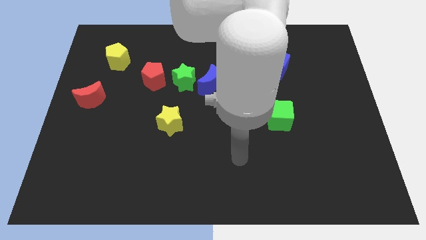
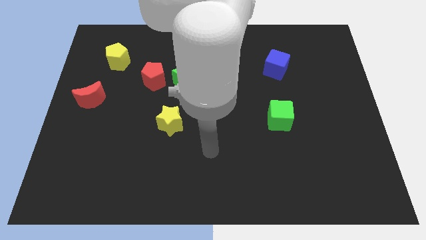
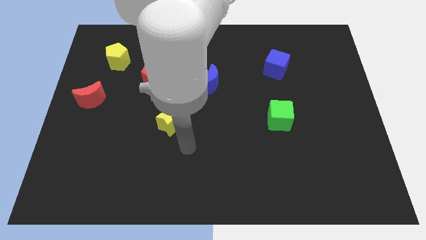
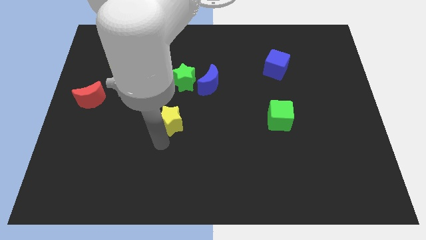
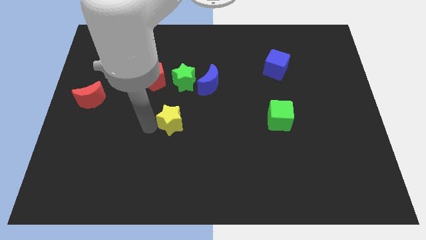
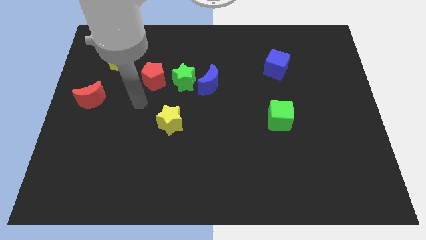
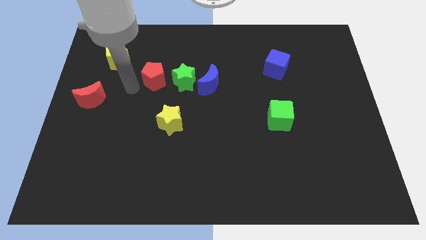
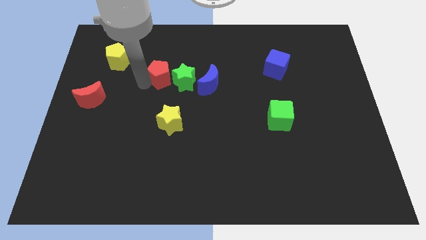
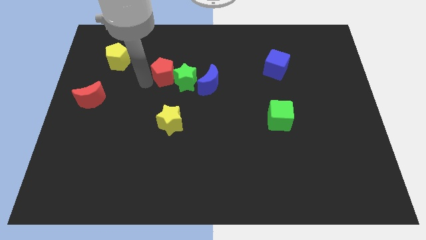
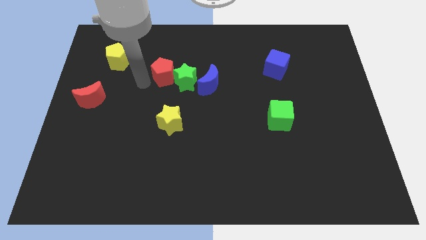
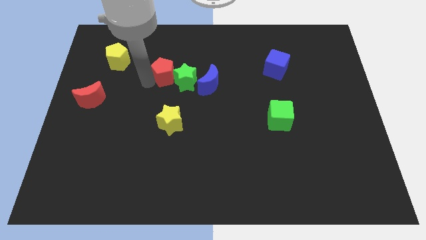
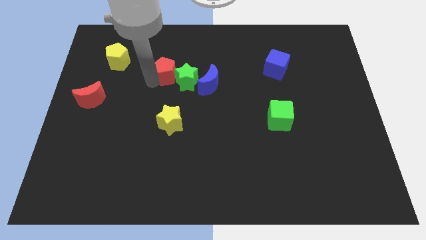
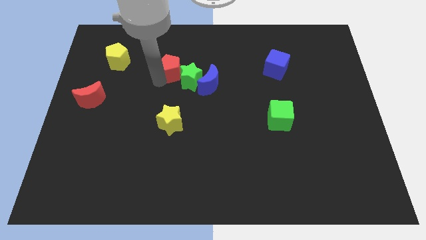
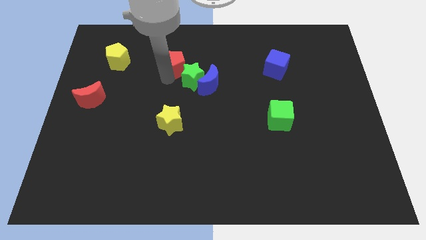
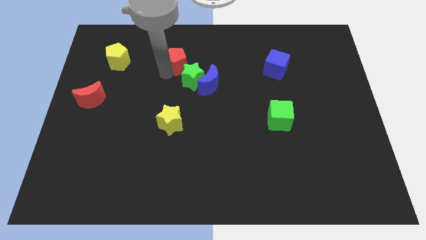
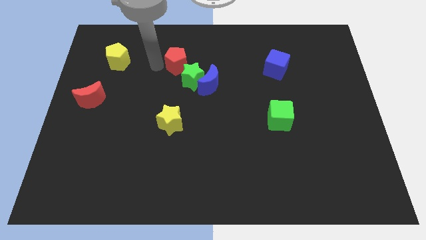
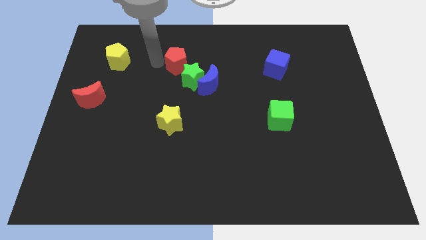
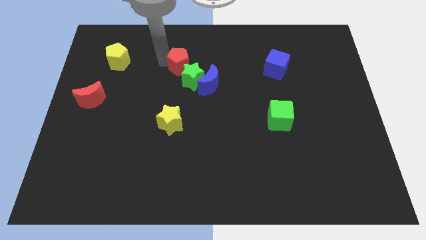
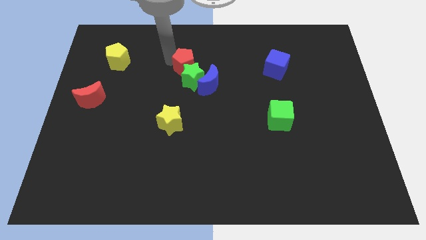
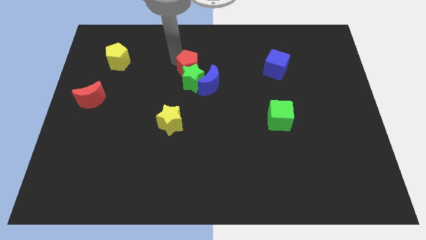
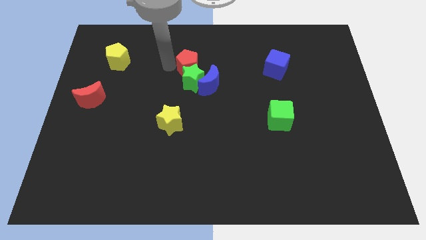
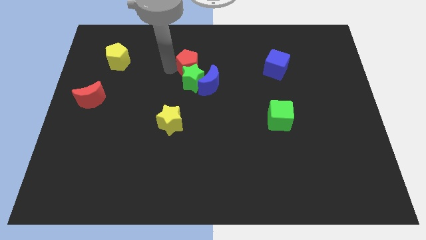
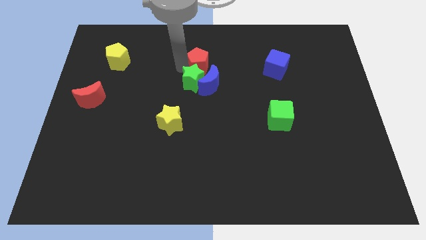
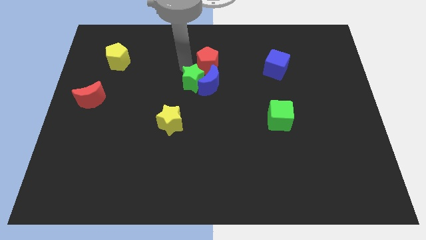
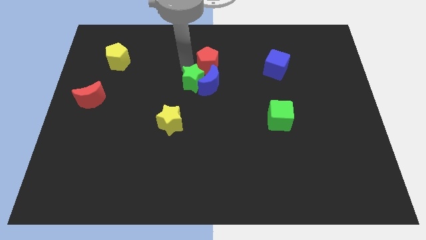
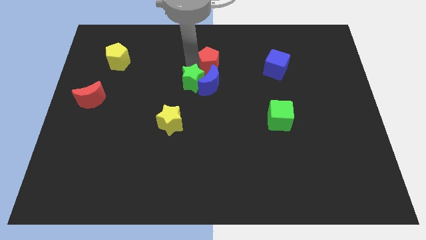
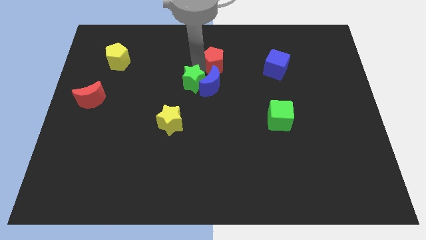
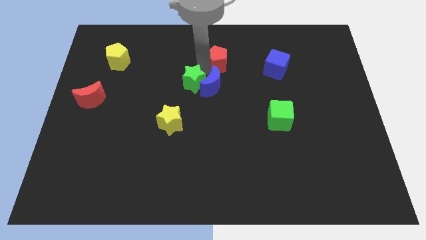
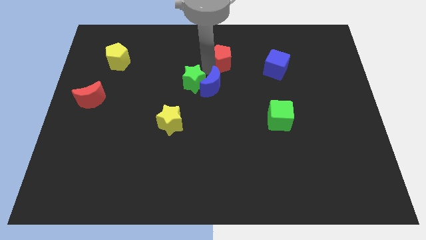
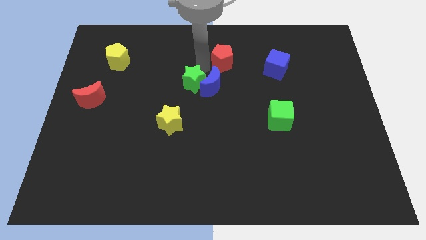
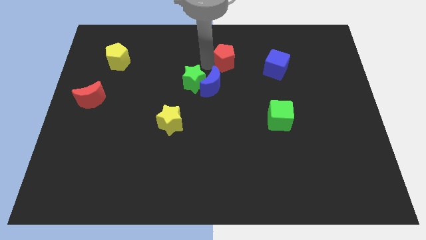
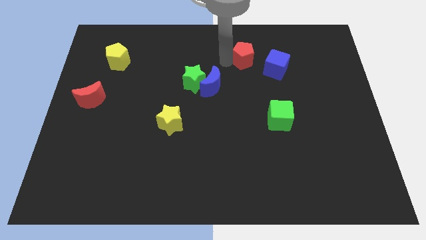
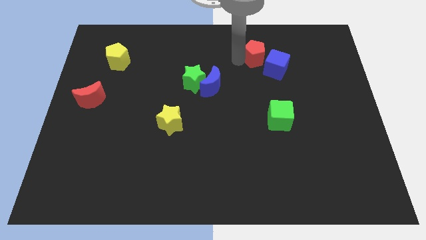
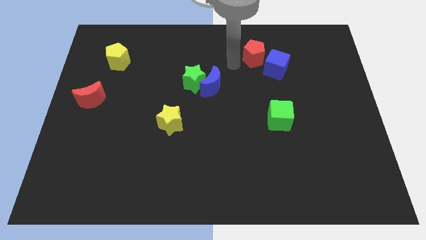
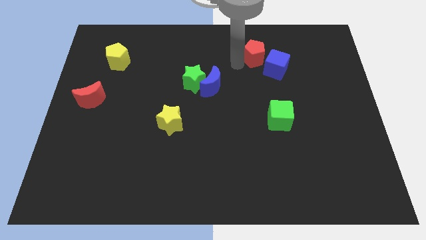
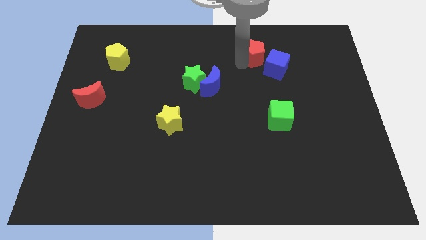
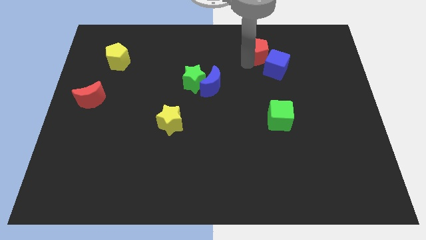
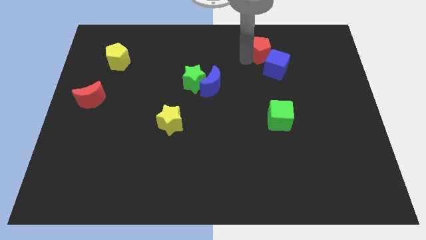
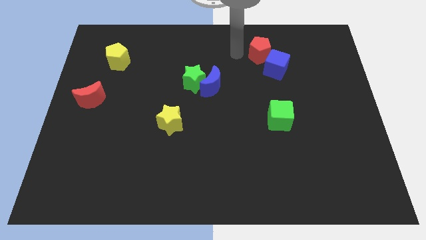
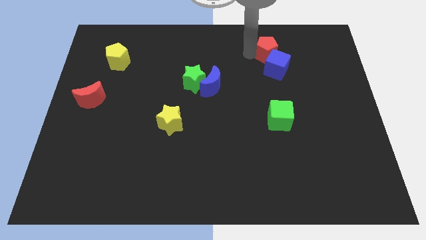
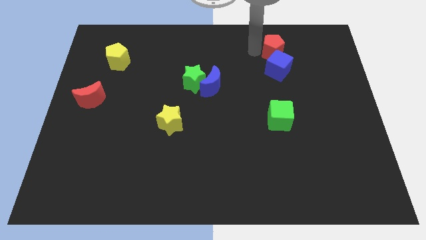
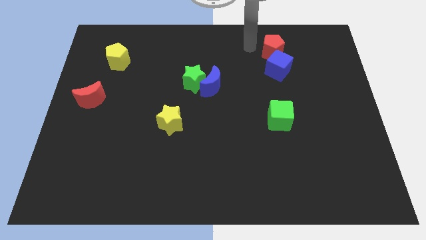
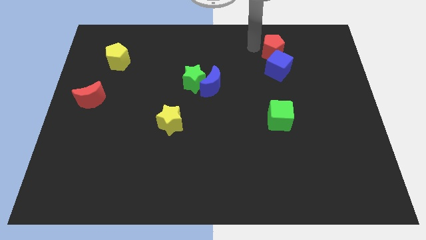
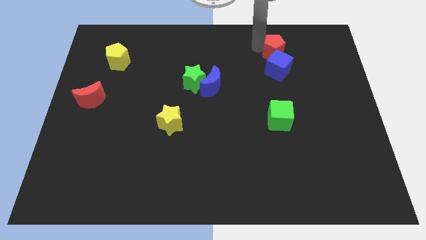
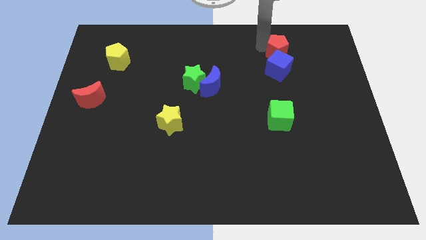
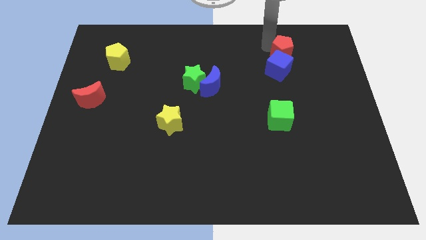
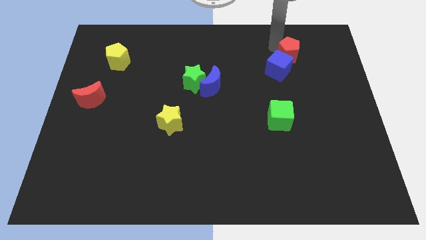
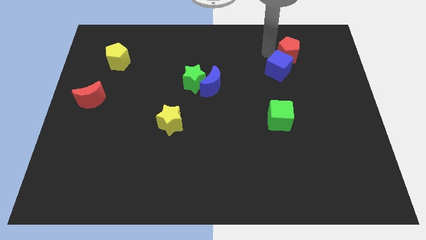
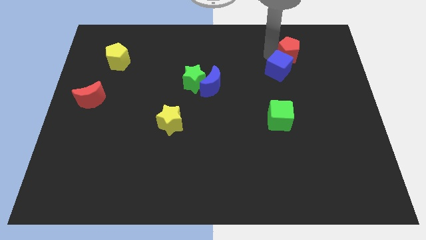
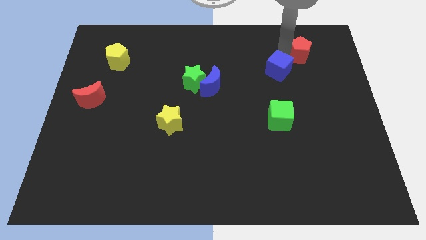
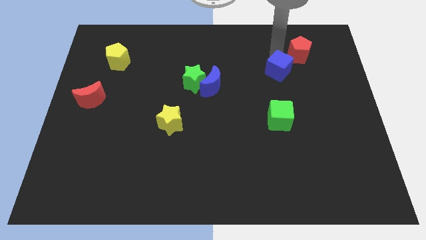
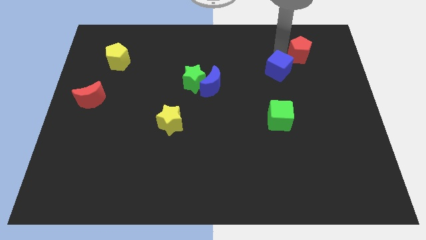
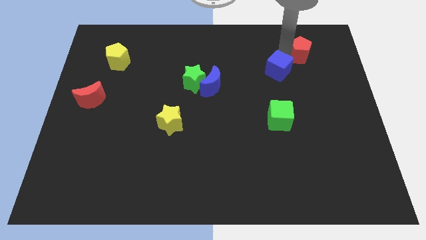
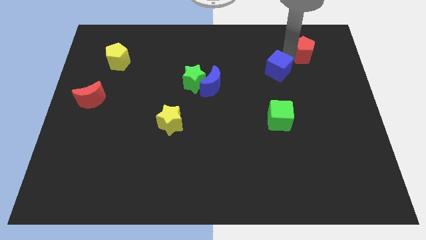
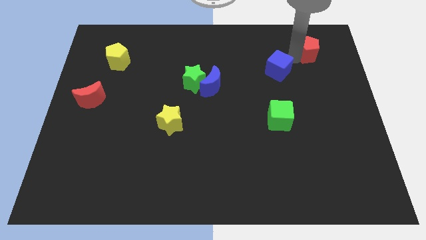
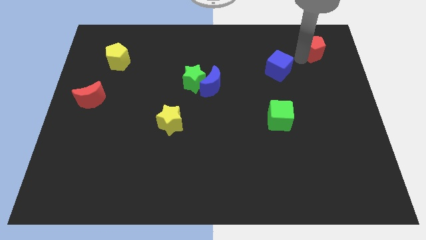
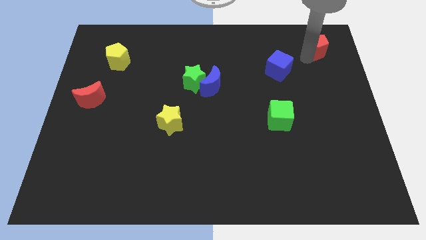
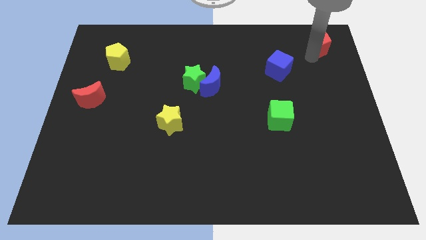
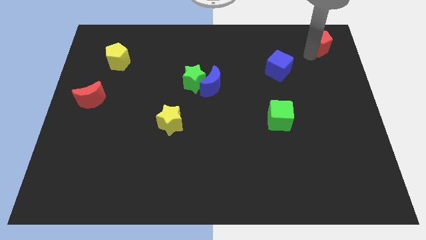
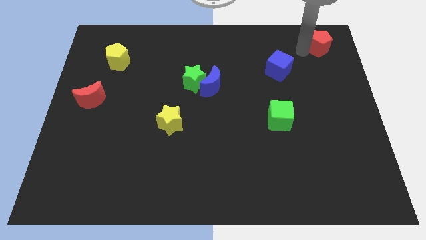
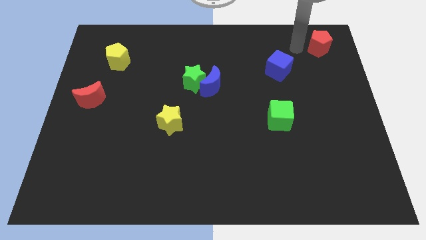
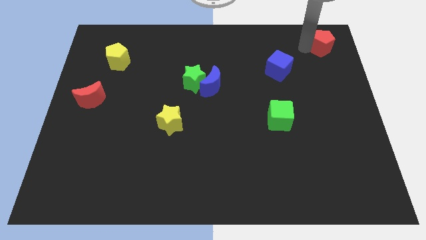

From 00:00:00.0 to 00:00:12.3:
slide the red pentagon to the top right
